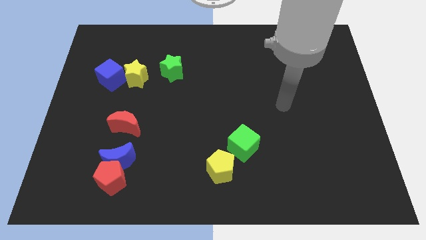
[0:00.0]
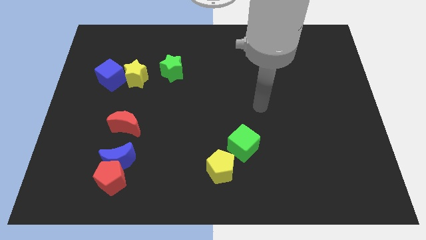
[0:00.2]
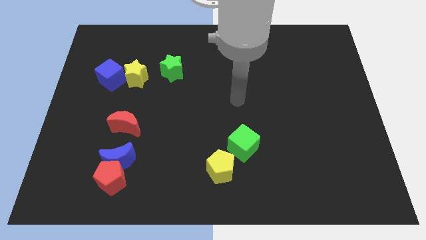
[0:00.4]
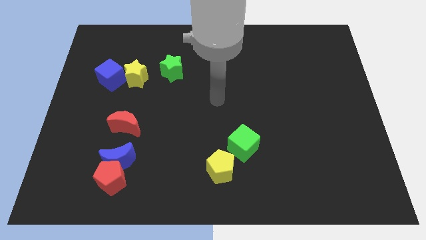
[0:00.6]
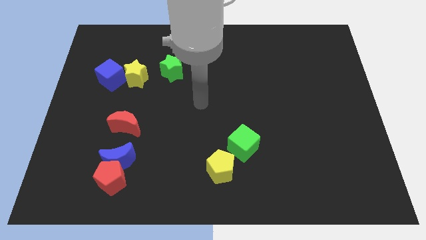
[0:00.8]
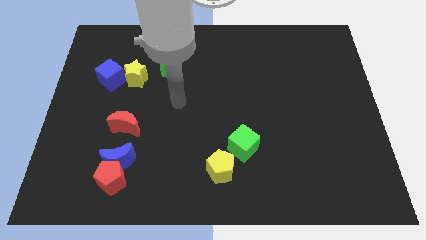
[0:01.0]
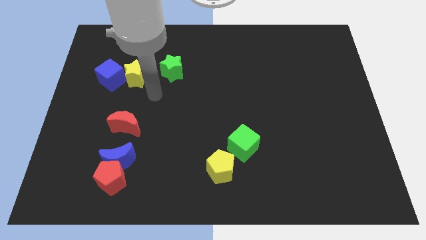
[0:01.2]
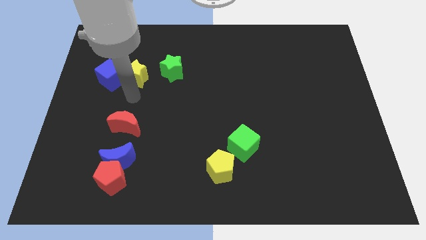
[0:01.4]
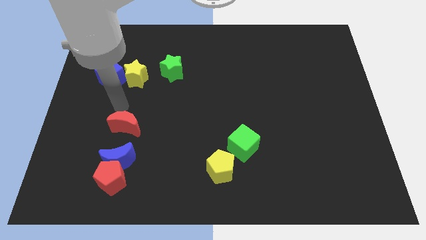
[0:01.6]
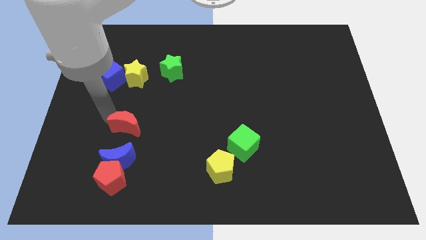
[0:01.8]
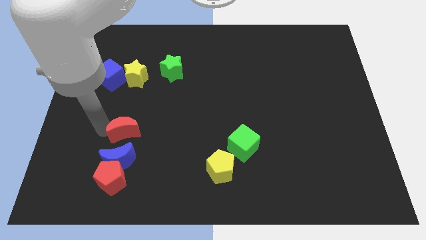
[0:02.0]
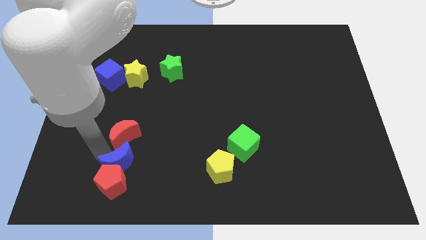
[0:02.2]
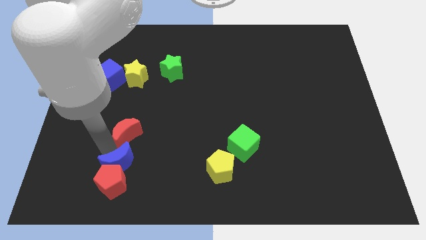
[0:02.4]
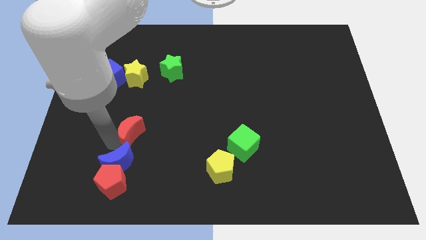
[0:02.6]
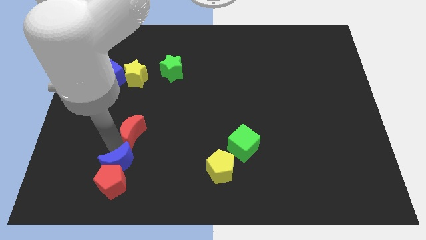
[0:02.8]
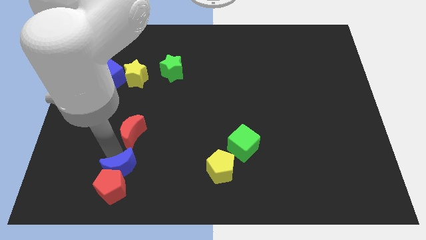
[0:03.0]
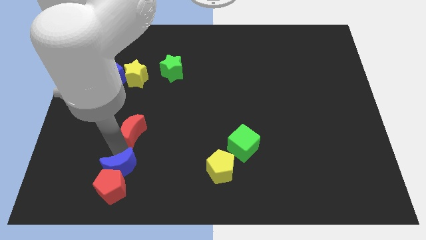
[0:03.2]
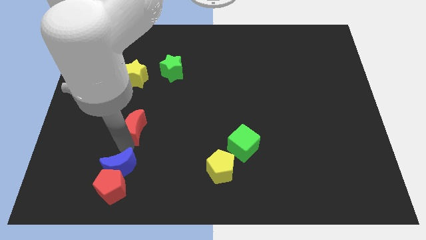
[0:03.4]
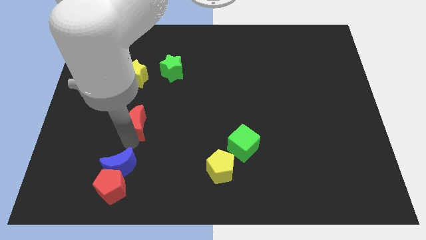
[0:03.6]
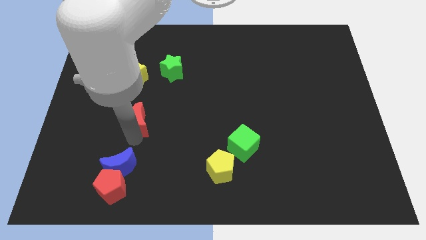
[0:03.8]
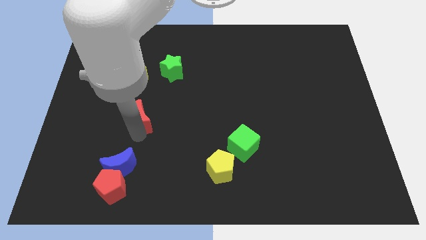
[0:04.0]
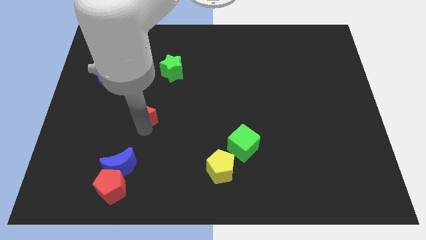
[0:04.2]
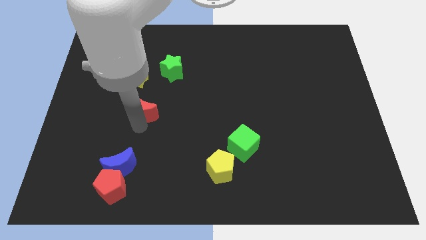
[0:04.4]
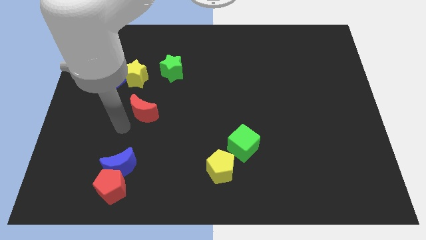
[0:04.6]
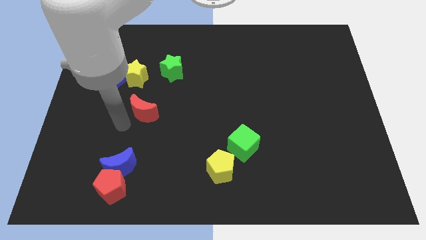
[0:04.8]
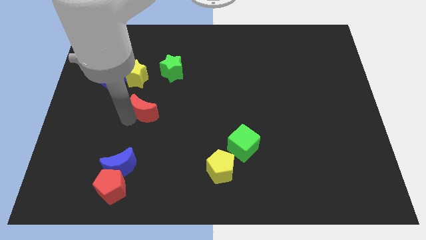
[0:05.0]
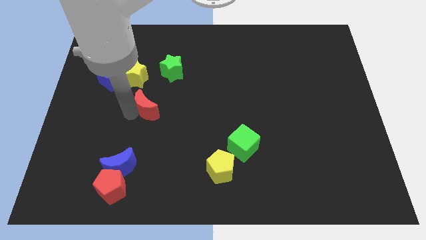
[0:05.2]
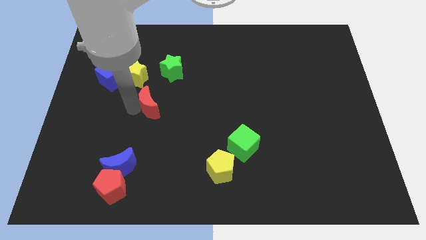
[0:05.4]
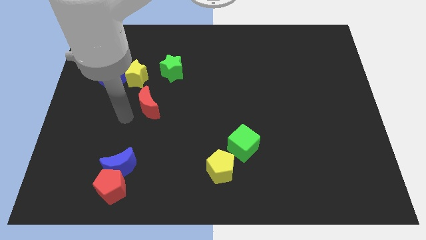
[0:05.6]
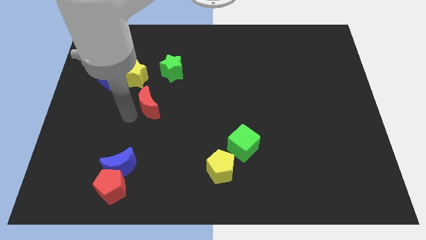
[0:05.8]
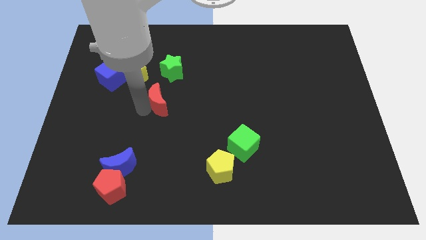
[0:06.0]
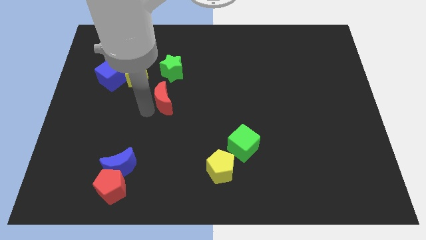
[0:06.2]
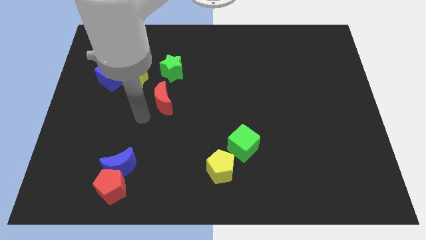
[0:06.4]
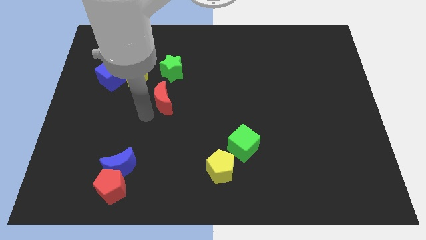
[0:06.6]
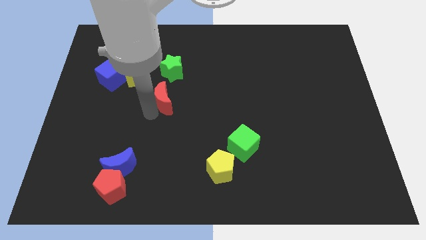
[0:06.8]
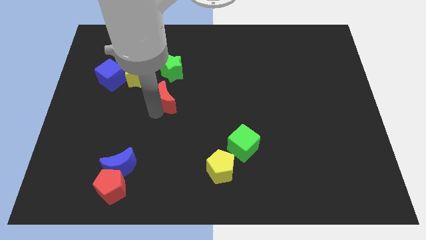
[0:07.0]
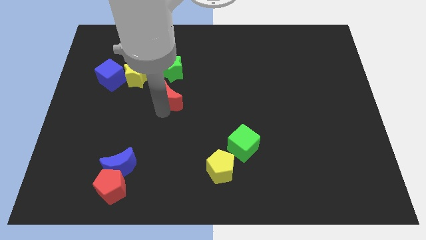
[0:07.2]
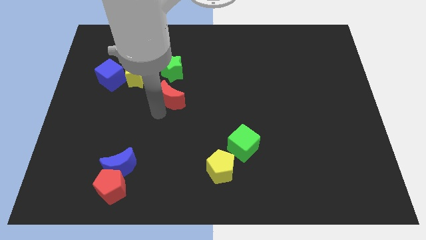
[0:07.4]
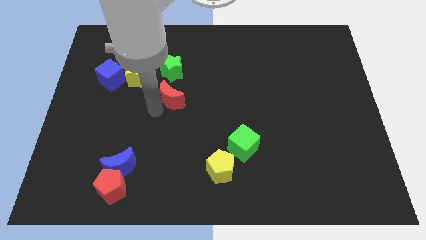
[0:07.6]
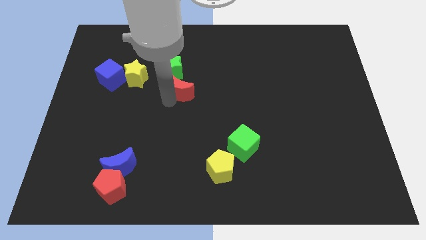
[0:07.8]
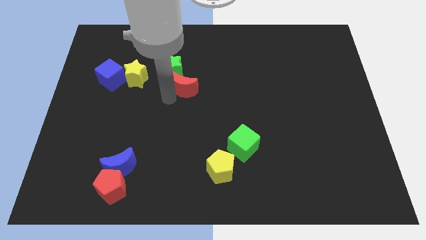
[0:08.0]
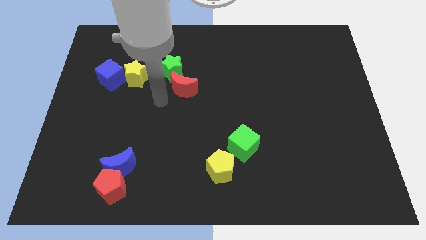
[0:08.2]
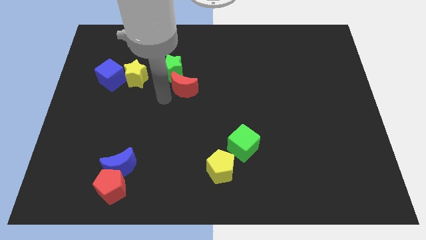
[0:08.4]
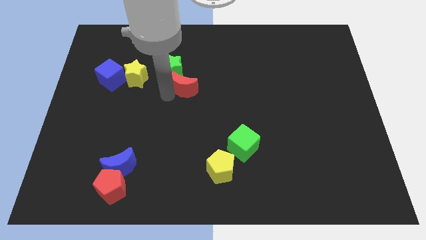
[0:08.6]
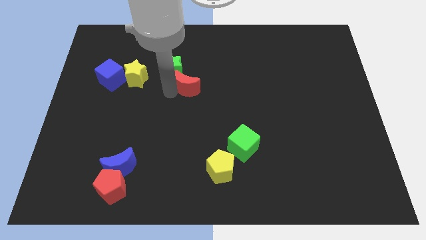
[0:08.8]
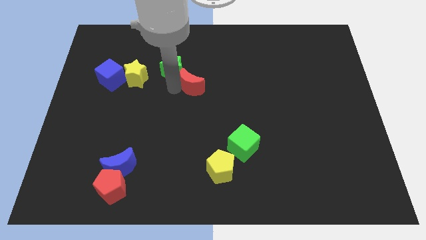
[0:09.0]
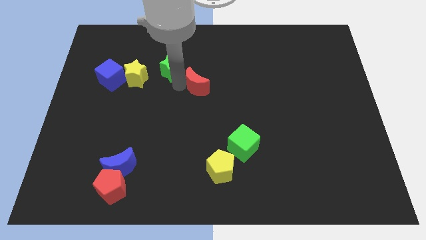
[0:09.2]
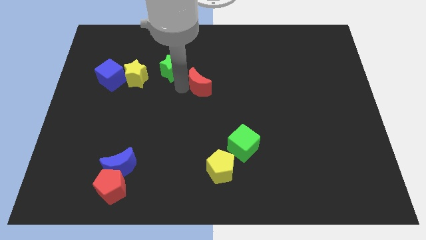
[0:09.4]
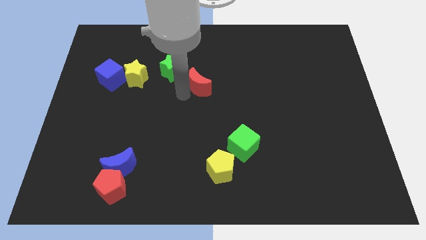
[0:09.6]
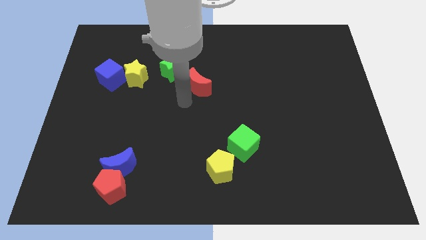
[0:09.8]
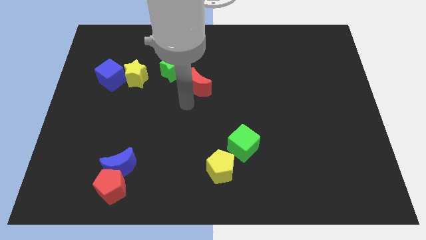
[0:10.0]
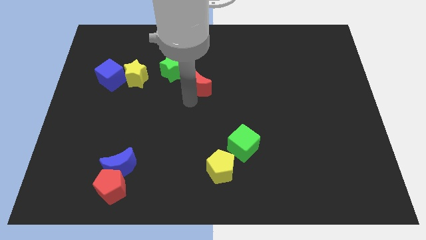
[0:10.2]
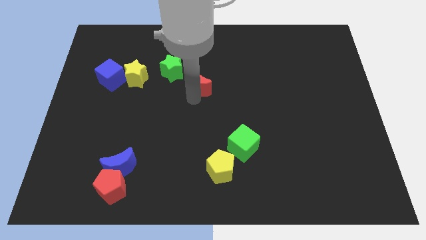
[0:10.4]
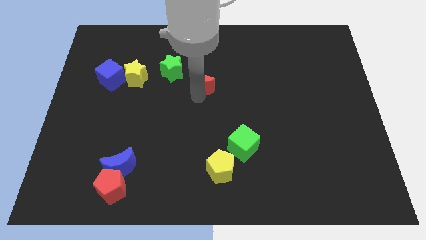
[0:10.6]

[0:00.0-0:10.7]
push the red moon diagonally up and right

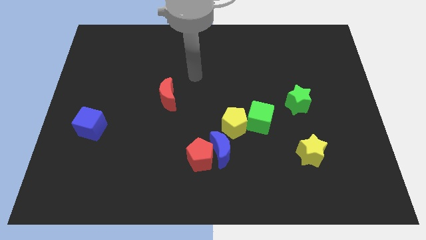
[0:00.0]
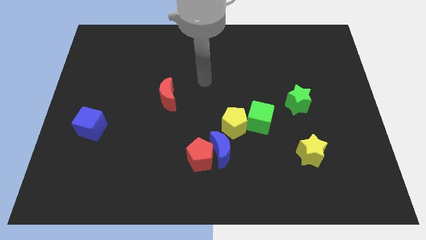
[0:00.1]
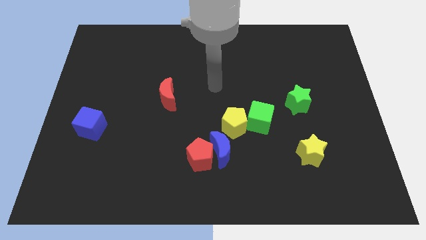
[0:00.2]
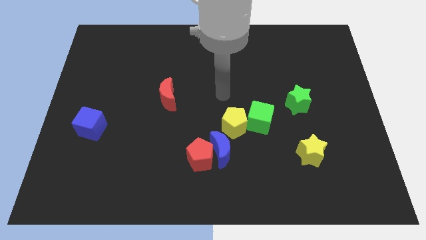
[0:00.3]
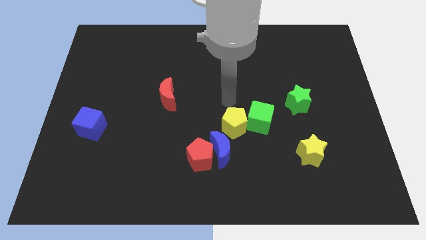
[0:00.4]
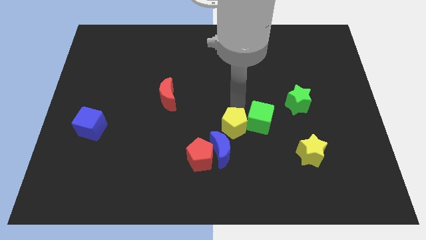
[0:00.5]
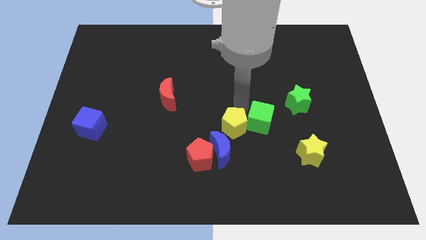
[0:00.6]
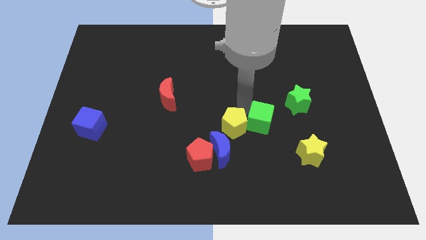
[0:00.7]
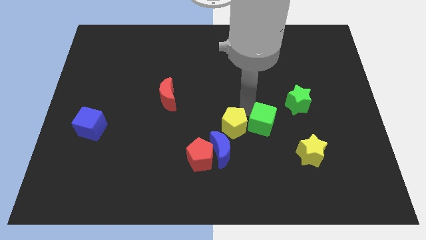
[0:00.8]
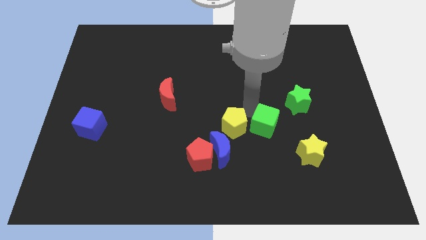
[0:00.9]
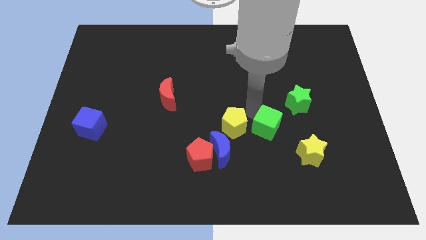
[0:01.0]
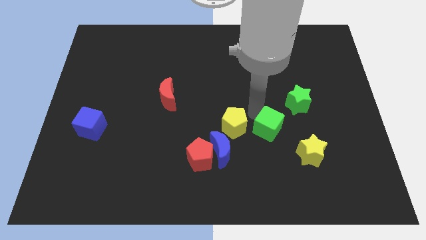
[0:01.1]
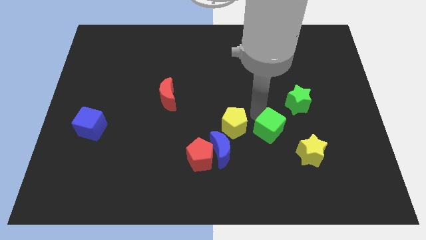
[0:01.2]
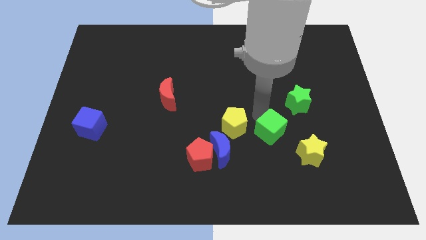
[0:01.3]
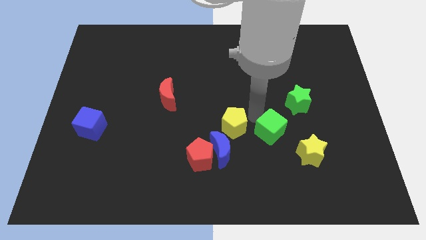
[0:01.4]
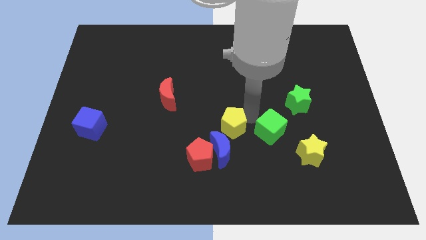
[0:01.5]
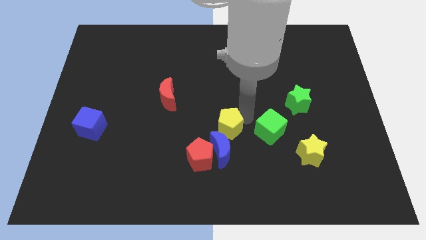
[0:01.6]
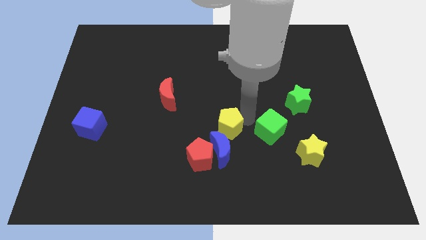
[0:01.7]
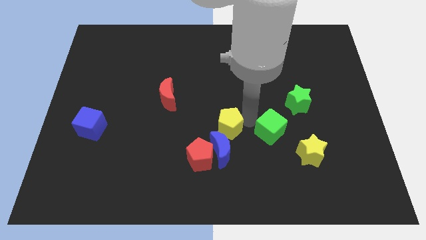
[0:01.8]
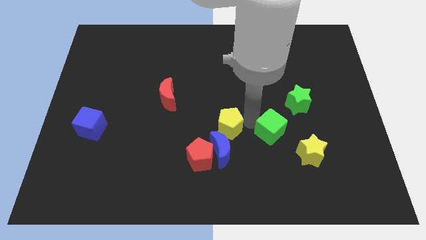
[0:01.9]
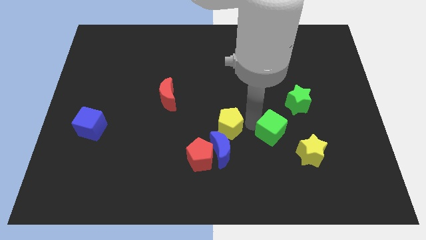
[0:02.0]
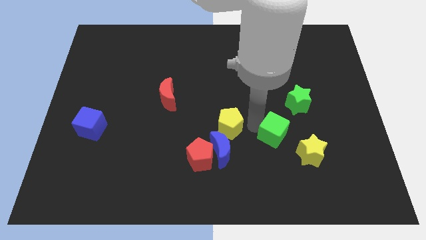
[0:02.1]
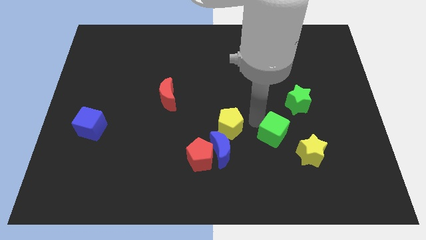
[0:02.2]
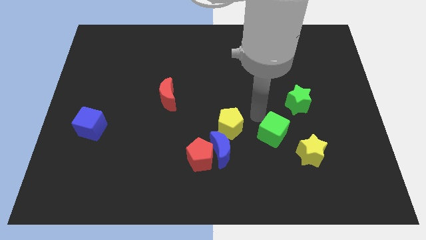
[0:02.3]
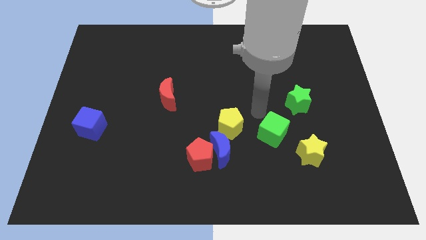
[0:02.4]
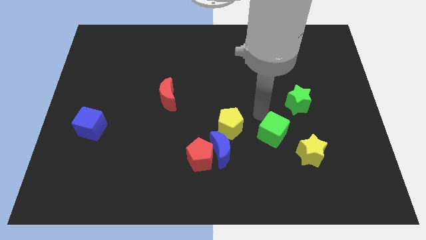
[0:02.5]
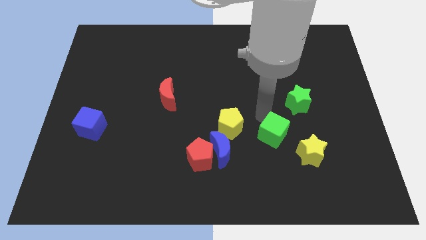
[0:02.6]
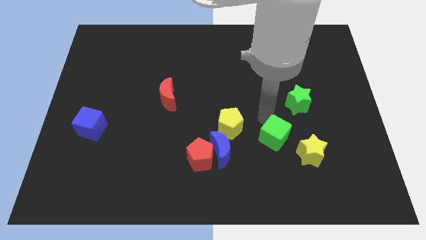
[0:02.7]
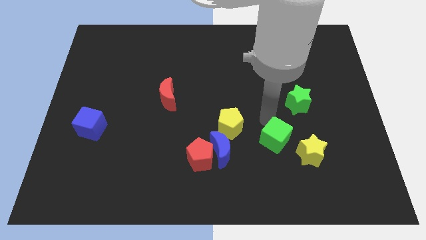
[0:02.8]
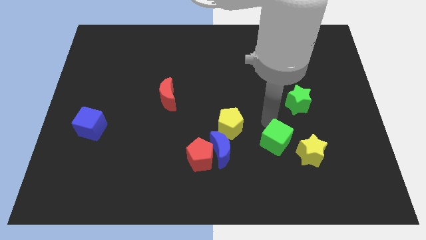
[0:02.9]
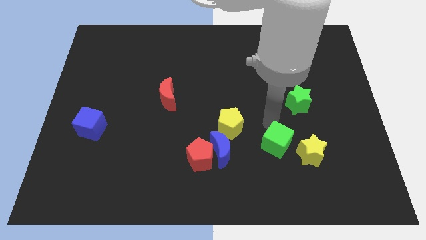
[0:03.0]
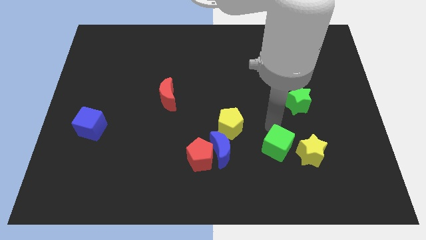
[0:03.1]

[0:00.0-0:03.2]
slide the green cube downwards and then to the right a little
